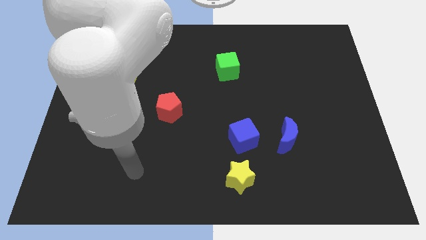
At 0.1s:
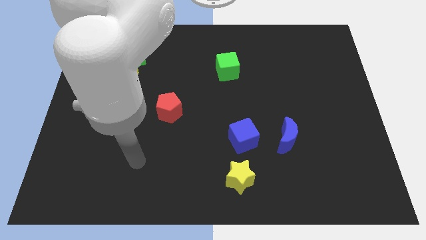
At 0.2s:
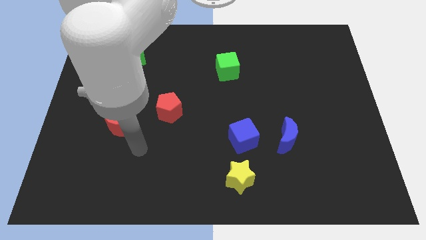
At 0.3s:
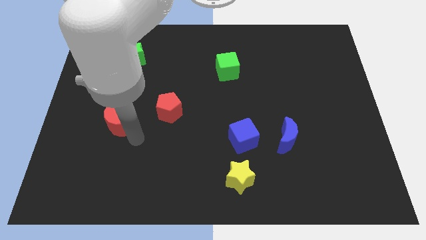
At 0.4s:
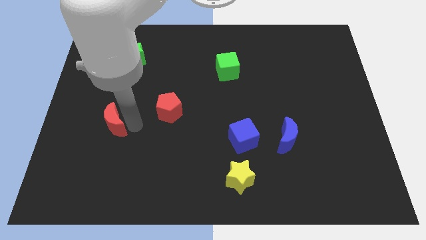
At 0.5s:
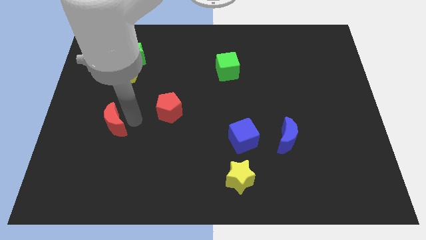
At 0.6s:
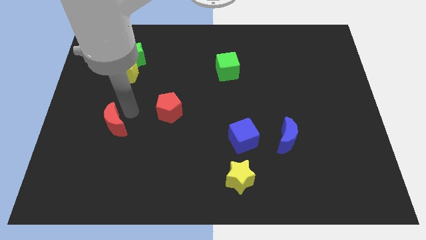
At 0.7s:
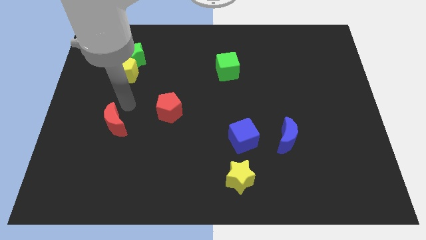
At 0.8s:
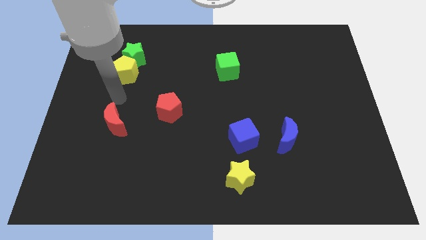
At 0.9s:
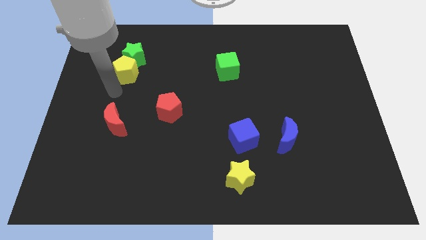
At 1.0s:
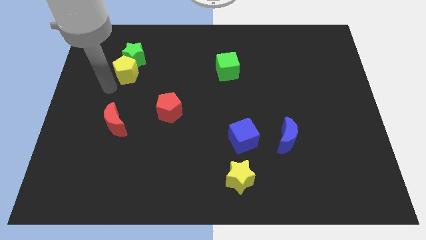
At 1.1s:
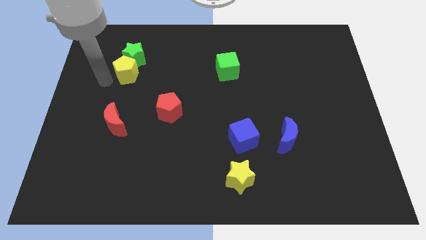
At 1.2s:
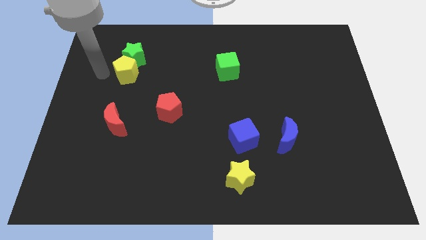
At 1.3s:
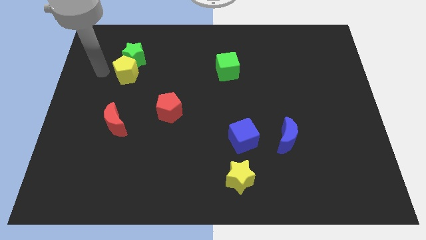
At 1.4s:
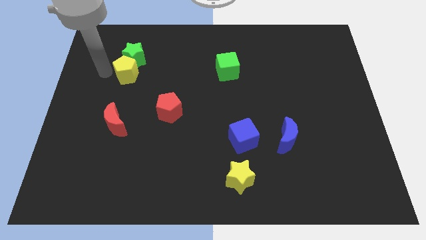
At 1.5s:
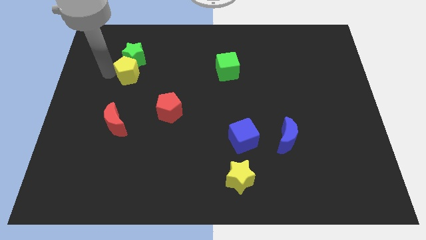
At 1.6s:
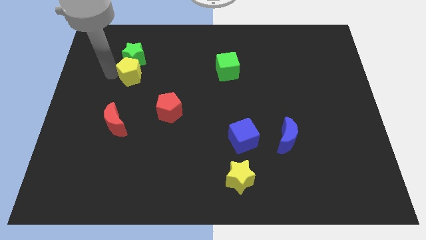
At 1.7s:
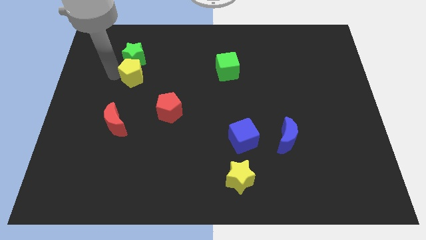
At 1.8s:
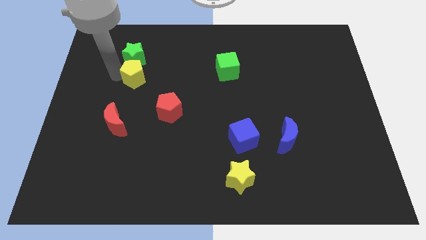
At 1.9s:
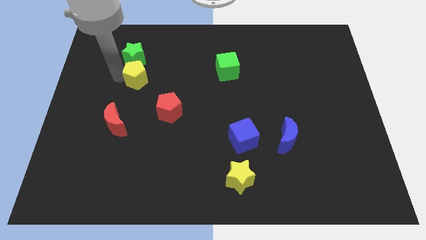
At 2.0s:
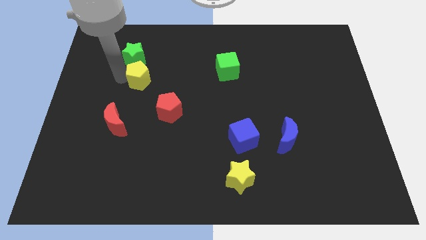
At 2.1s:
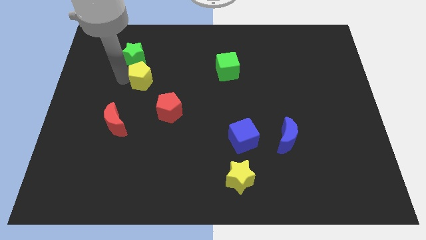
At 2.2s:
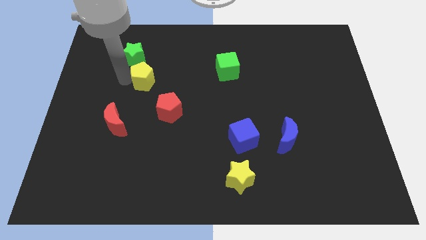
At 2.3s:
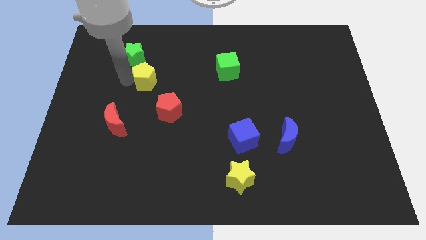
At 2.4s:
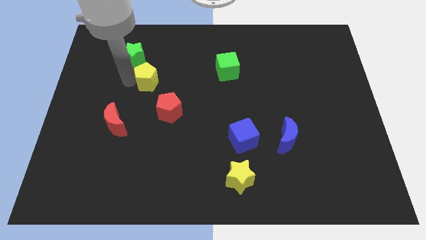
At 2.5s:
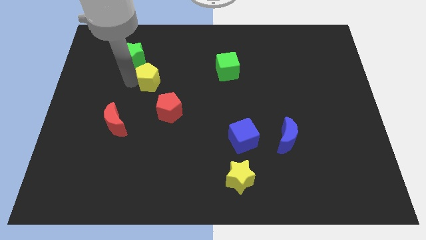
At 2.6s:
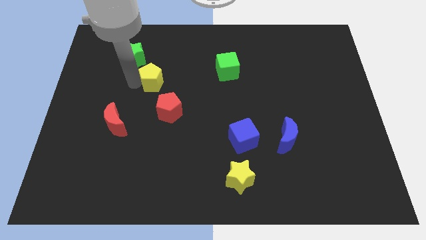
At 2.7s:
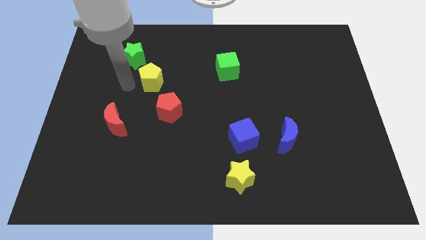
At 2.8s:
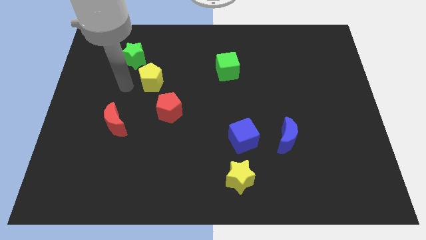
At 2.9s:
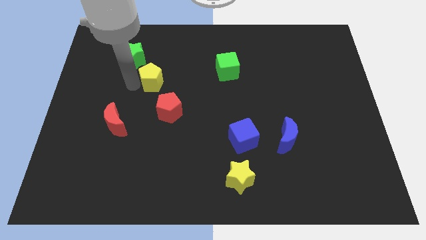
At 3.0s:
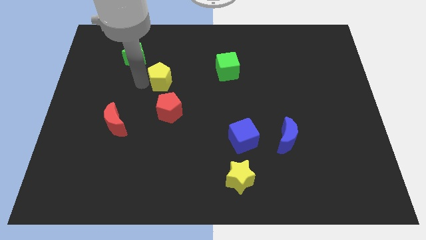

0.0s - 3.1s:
move the yellow pentagon right a little bit

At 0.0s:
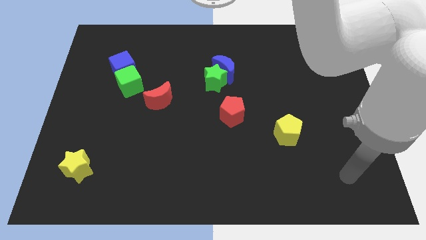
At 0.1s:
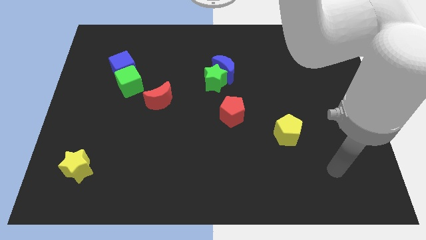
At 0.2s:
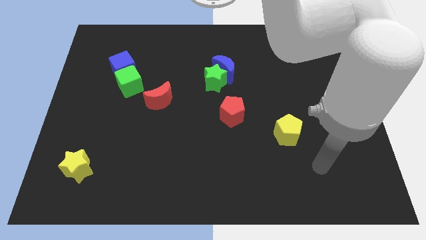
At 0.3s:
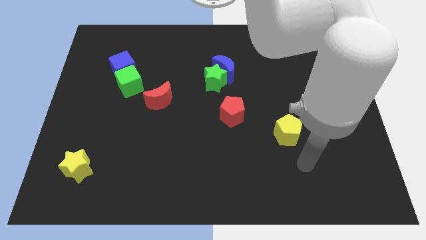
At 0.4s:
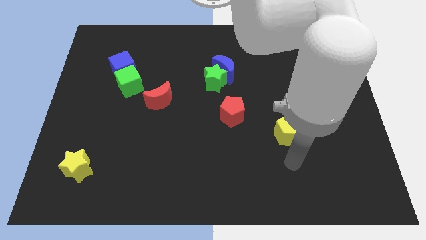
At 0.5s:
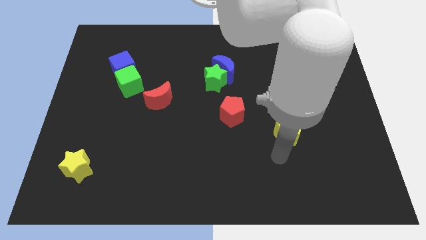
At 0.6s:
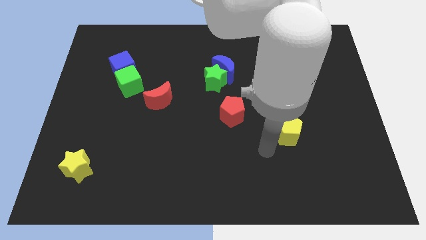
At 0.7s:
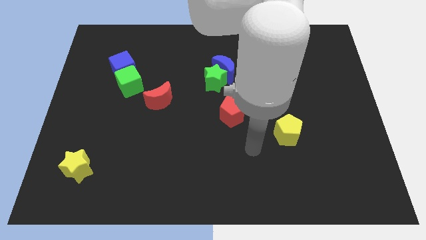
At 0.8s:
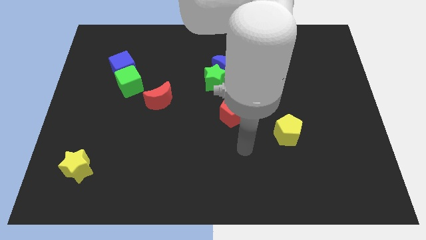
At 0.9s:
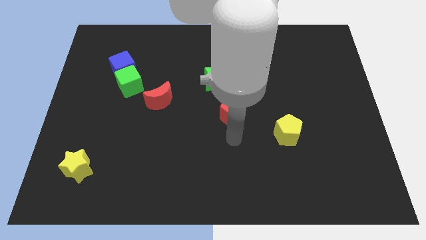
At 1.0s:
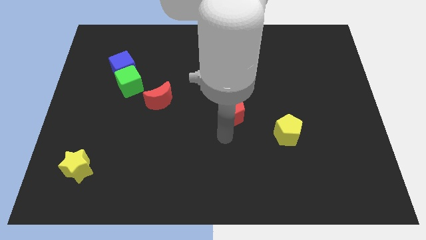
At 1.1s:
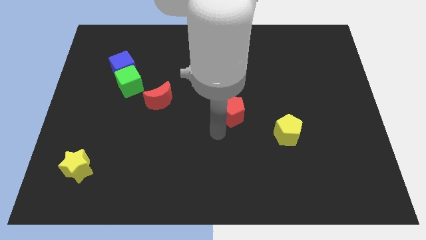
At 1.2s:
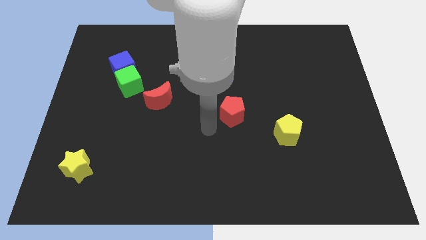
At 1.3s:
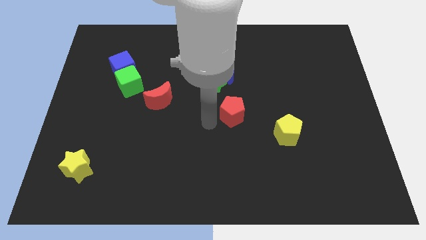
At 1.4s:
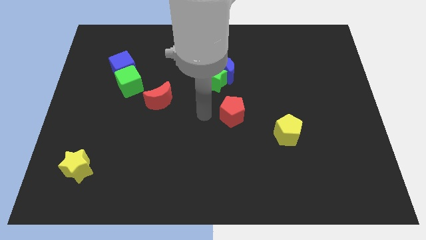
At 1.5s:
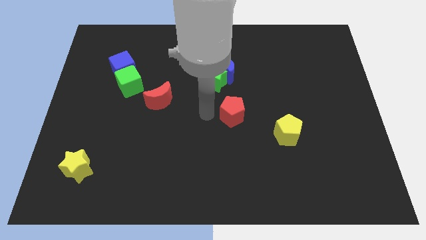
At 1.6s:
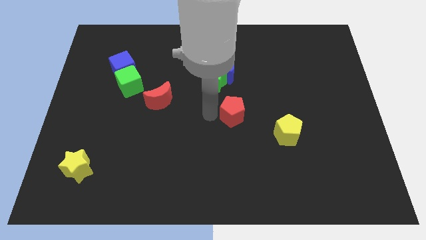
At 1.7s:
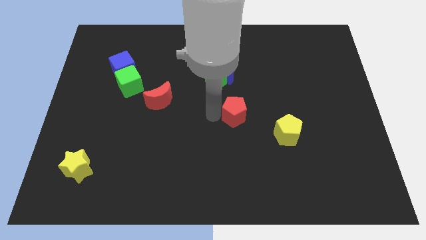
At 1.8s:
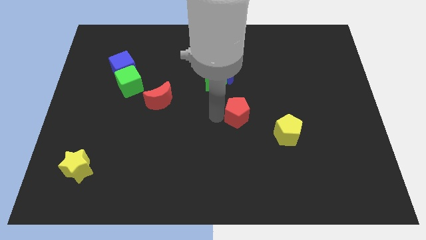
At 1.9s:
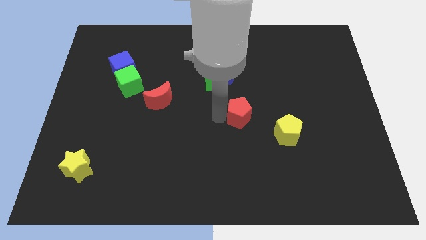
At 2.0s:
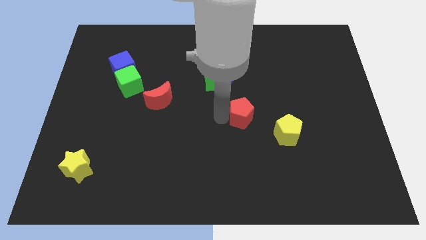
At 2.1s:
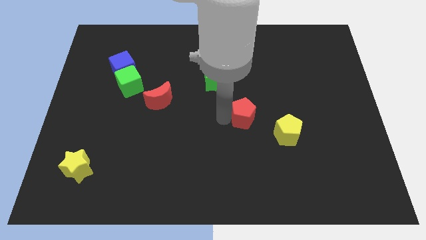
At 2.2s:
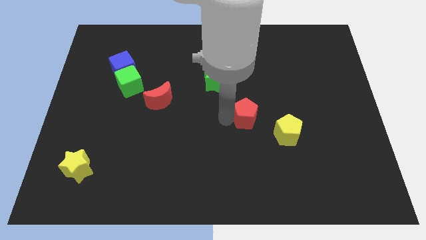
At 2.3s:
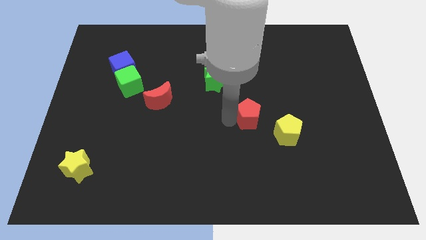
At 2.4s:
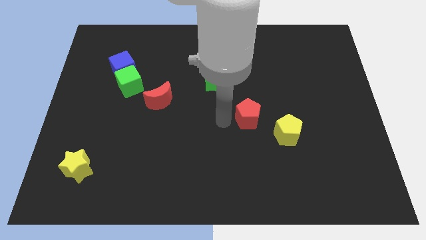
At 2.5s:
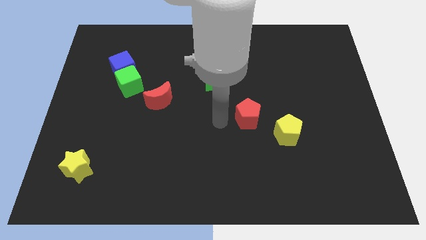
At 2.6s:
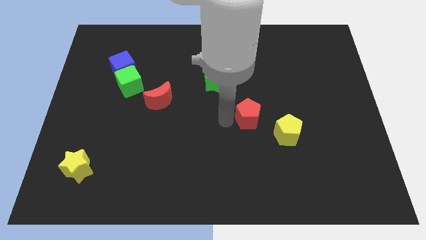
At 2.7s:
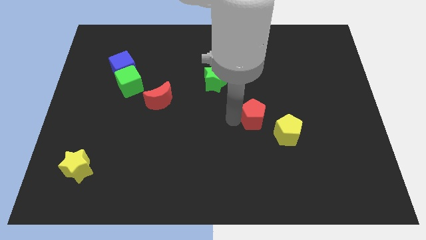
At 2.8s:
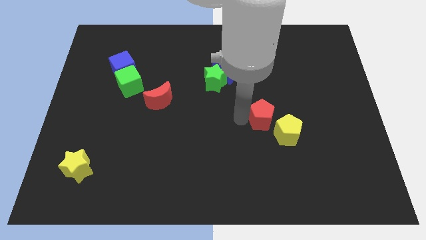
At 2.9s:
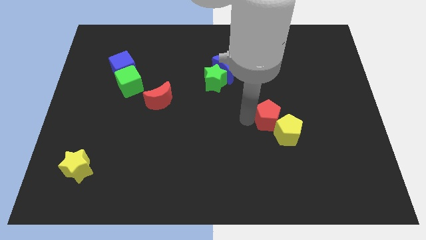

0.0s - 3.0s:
slightly move the red pentagon to the right

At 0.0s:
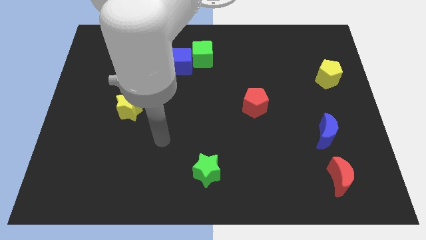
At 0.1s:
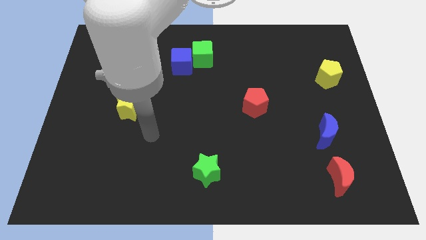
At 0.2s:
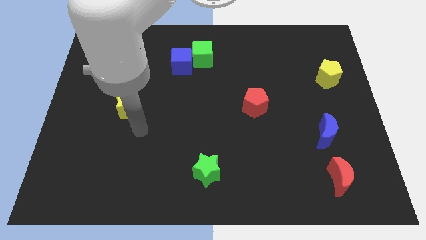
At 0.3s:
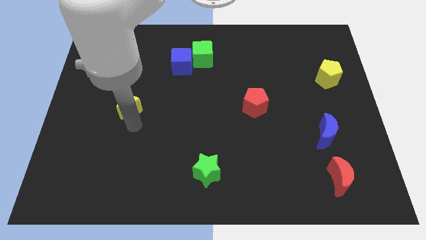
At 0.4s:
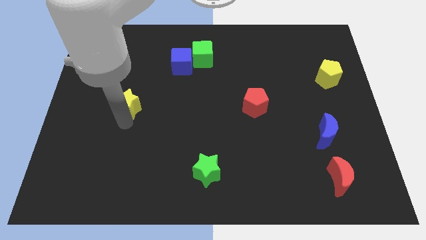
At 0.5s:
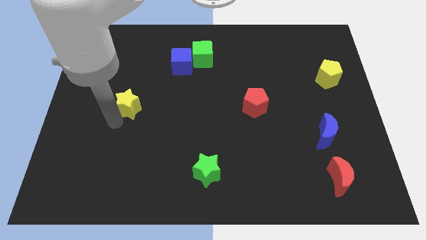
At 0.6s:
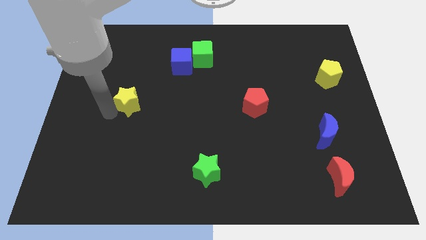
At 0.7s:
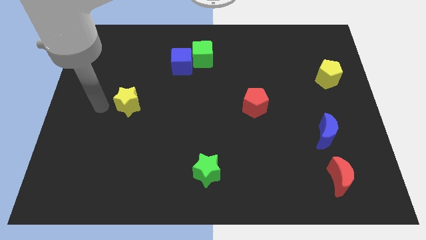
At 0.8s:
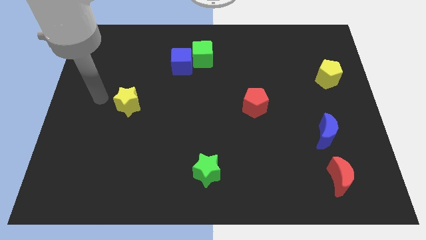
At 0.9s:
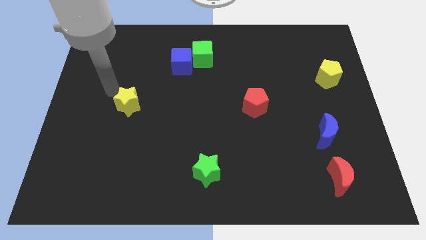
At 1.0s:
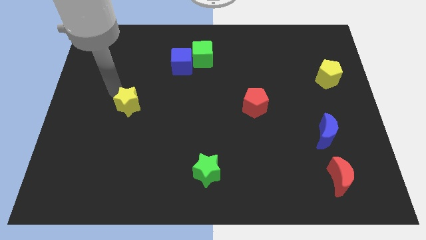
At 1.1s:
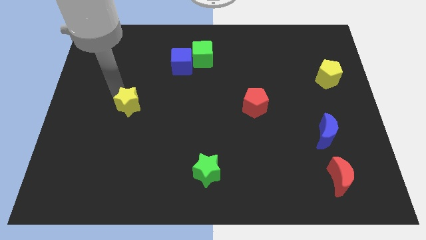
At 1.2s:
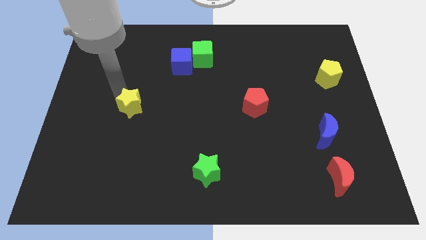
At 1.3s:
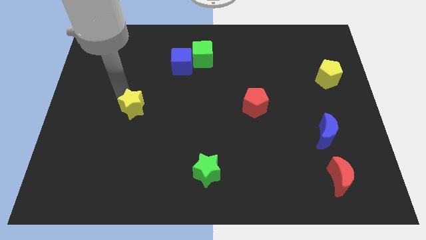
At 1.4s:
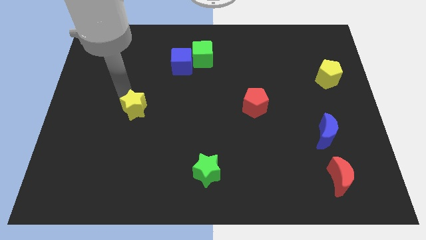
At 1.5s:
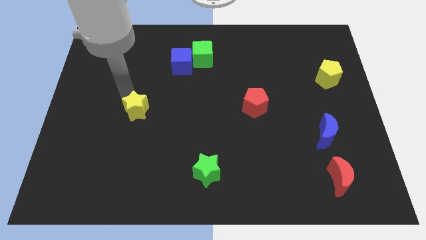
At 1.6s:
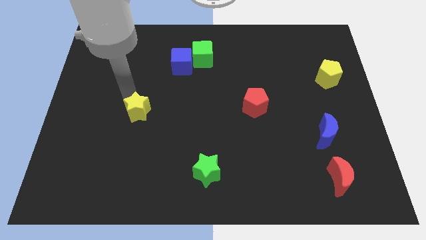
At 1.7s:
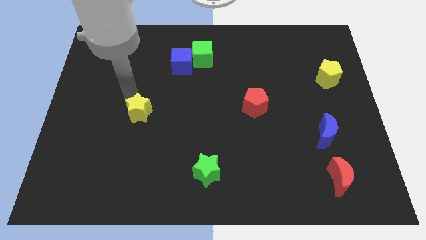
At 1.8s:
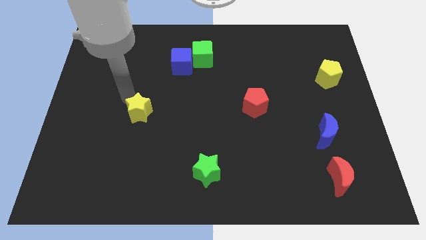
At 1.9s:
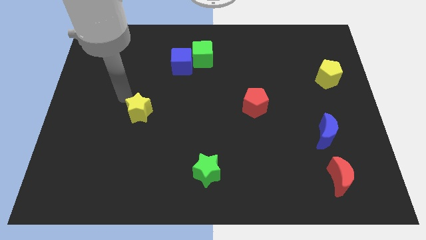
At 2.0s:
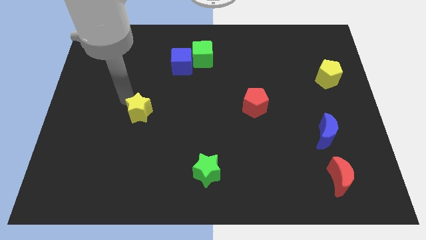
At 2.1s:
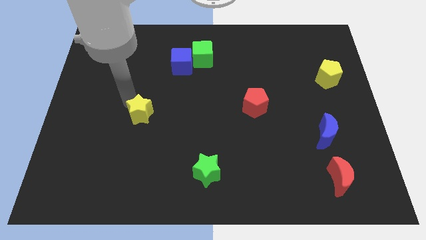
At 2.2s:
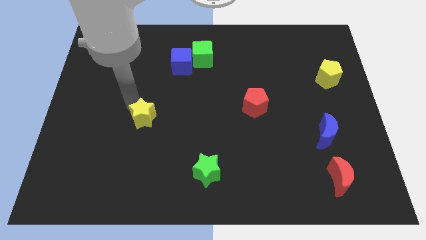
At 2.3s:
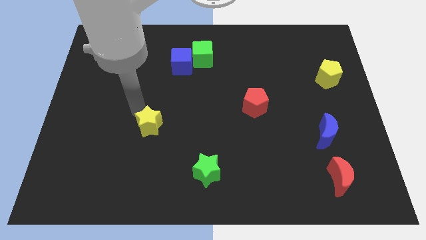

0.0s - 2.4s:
slightly move the yellow star down and right diagonally
